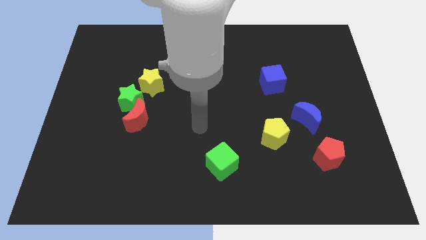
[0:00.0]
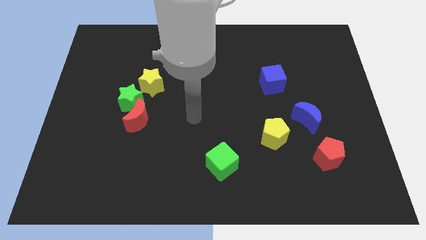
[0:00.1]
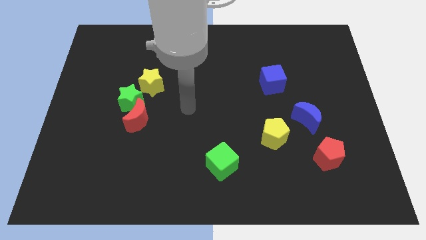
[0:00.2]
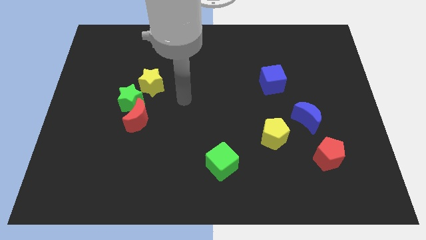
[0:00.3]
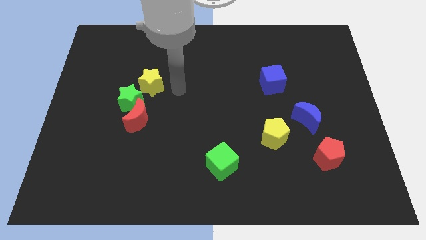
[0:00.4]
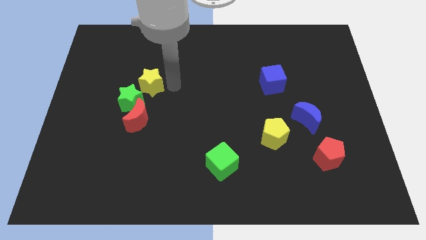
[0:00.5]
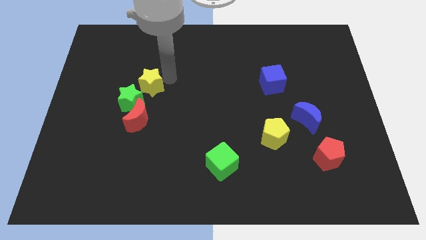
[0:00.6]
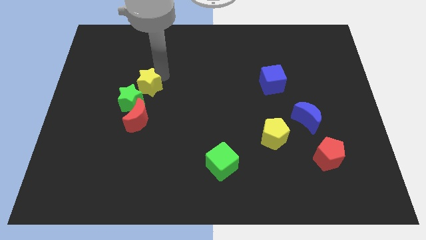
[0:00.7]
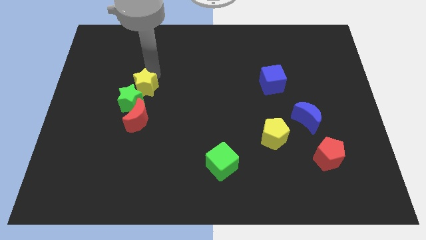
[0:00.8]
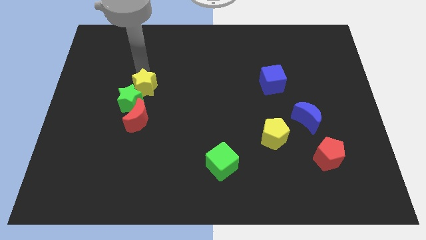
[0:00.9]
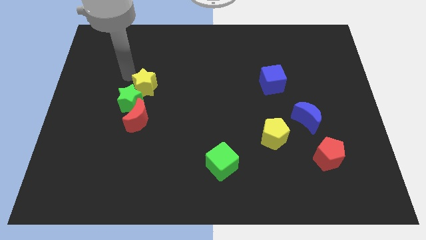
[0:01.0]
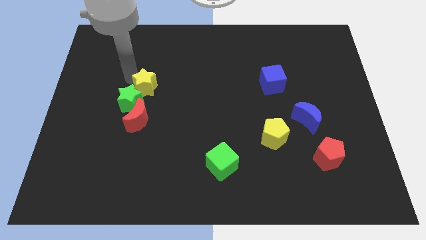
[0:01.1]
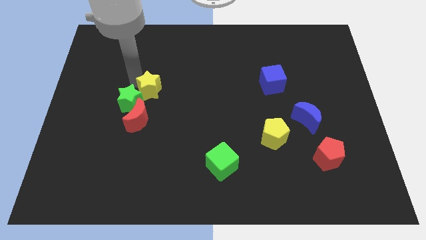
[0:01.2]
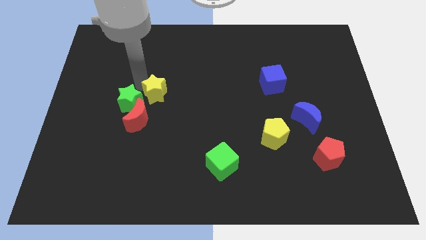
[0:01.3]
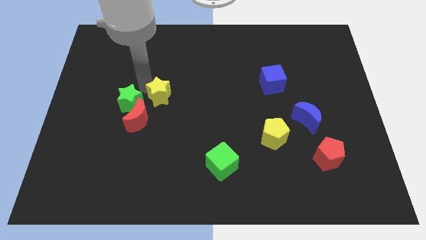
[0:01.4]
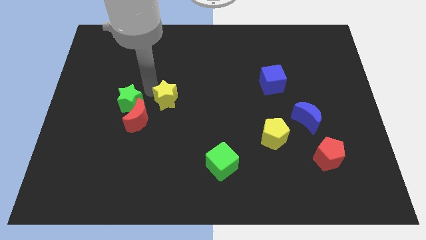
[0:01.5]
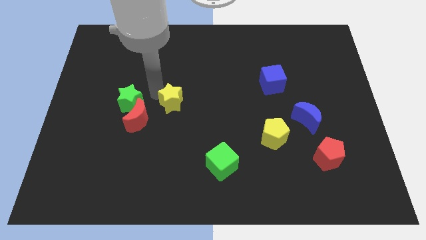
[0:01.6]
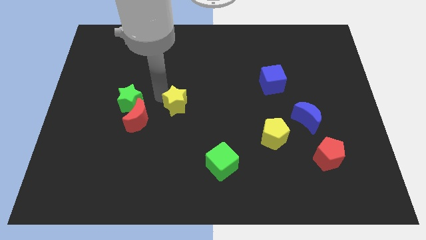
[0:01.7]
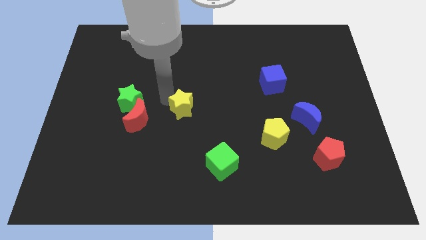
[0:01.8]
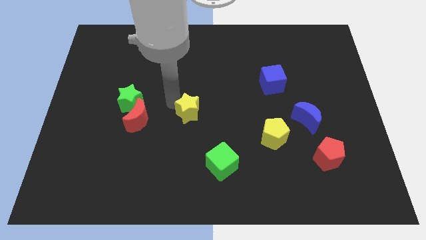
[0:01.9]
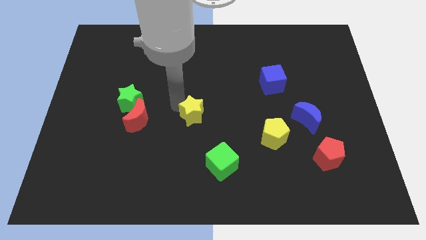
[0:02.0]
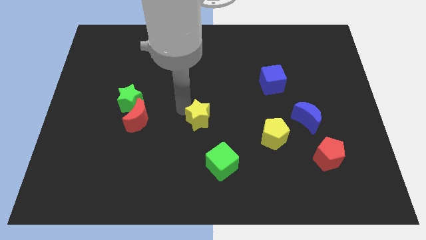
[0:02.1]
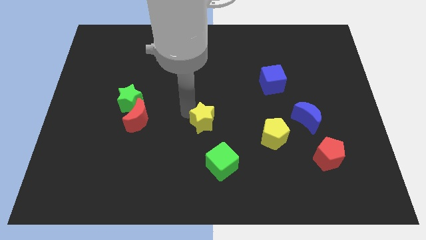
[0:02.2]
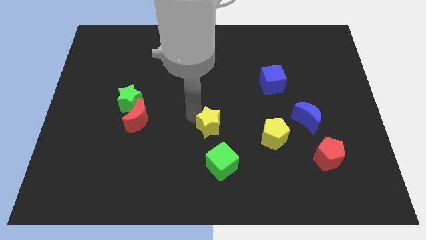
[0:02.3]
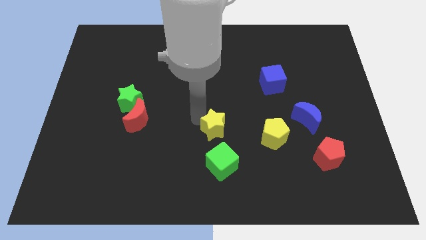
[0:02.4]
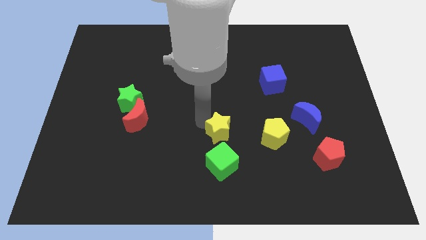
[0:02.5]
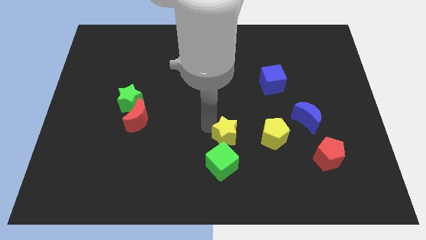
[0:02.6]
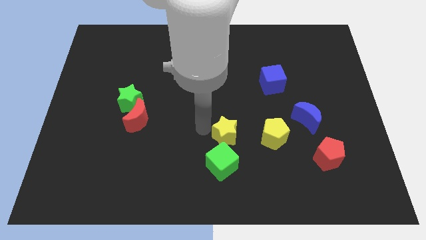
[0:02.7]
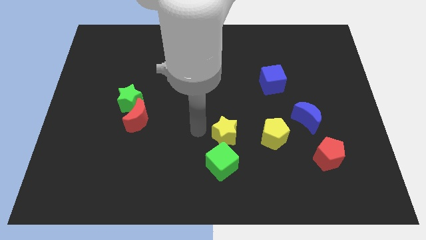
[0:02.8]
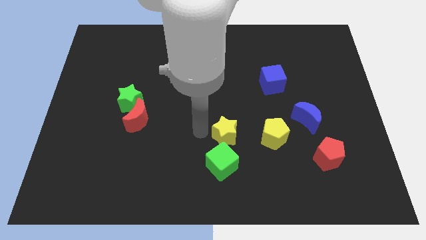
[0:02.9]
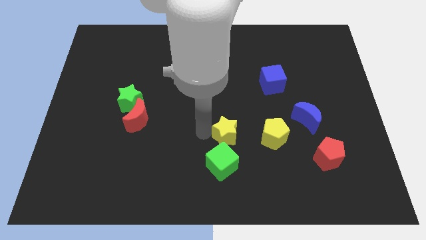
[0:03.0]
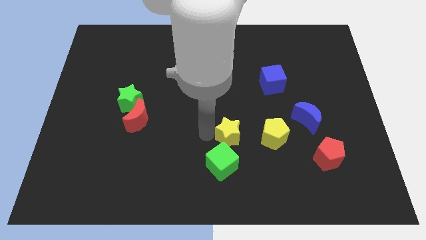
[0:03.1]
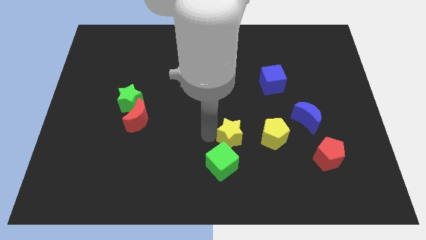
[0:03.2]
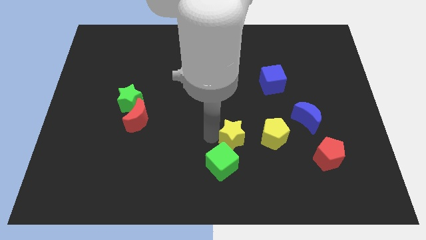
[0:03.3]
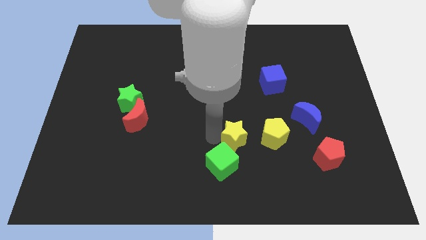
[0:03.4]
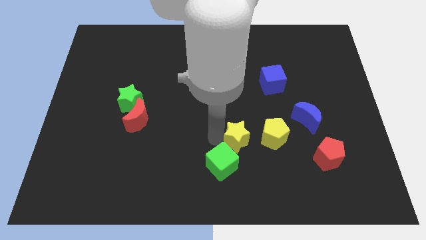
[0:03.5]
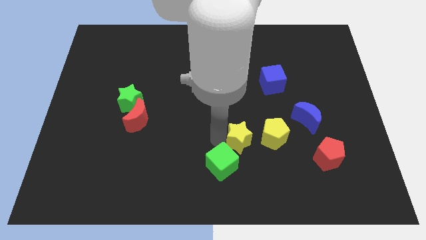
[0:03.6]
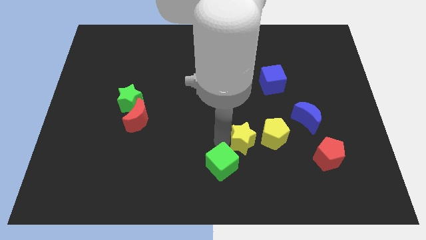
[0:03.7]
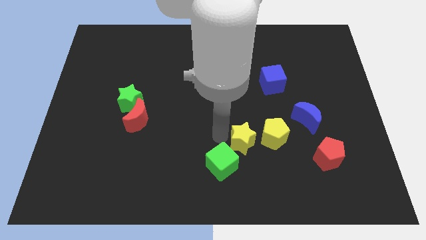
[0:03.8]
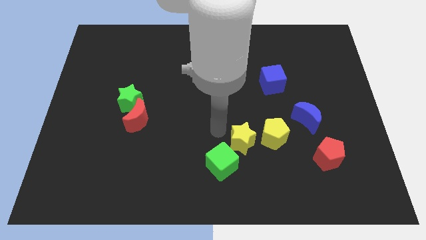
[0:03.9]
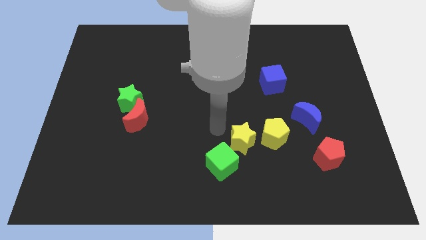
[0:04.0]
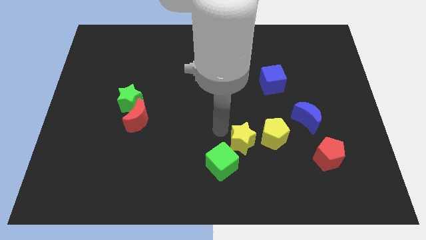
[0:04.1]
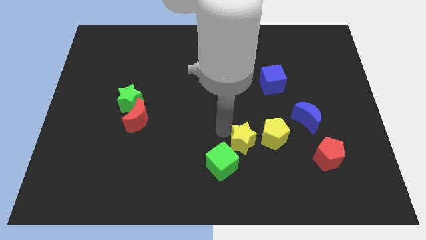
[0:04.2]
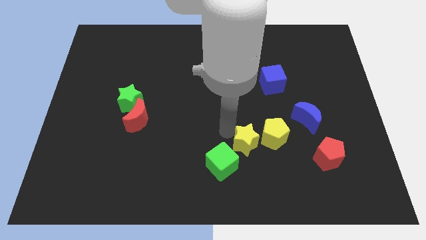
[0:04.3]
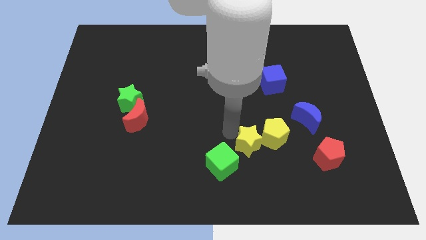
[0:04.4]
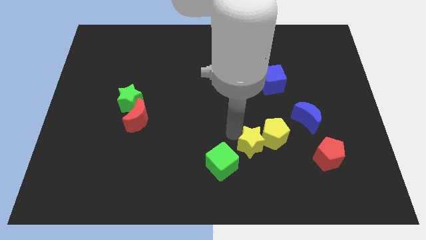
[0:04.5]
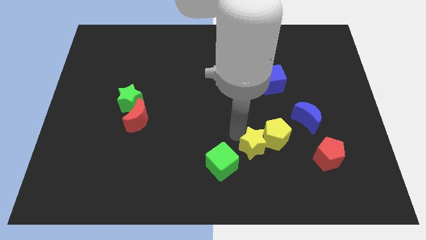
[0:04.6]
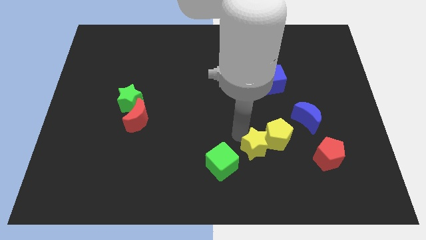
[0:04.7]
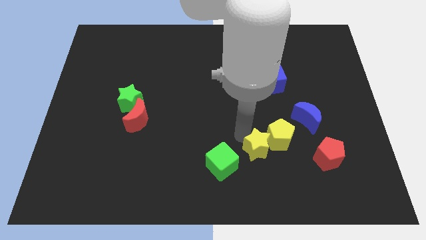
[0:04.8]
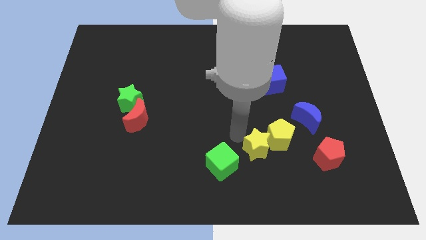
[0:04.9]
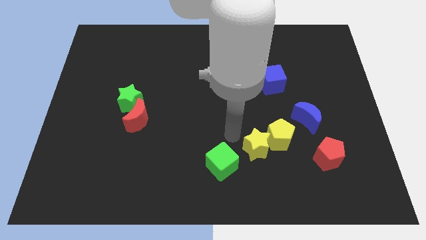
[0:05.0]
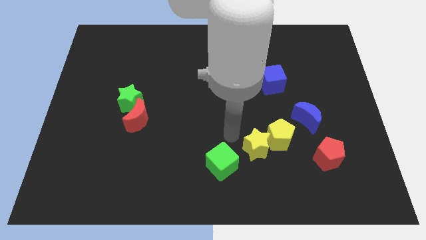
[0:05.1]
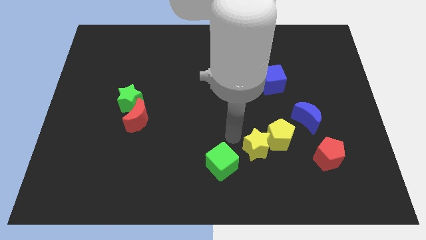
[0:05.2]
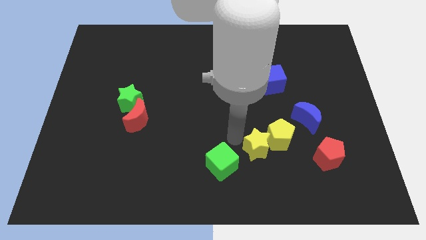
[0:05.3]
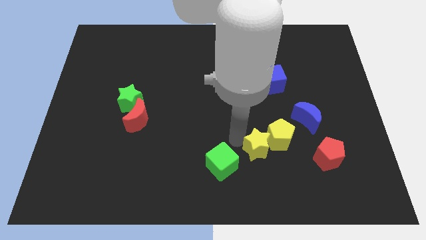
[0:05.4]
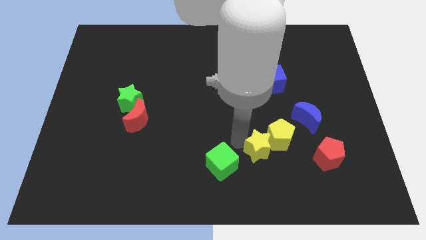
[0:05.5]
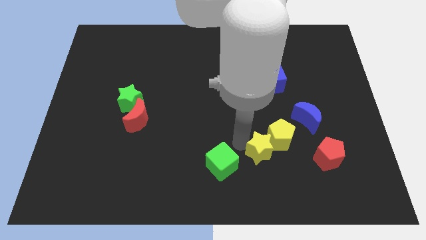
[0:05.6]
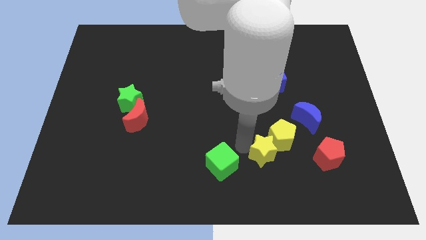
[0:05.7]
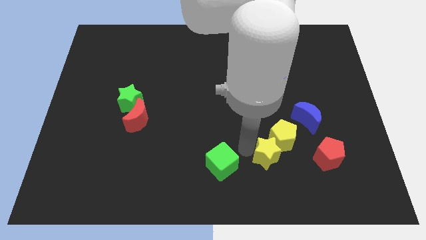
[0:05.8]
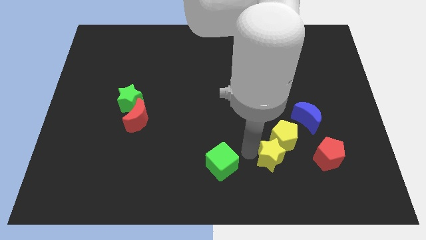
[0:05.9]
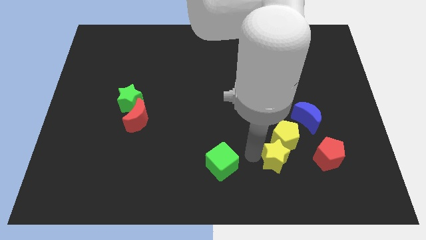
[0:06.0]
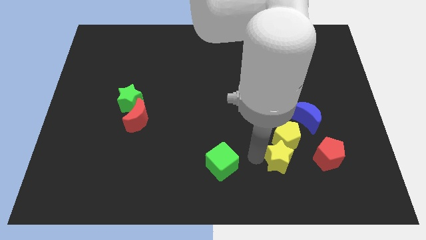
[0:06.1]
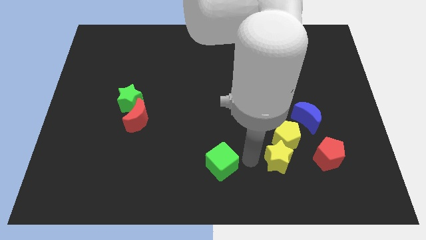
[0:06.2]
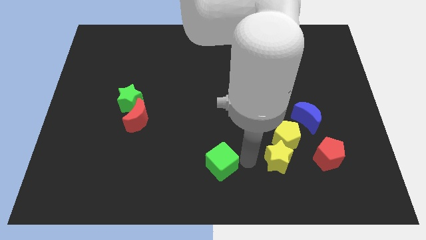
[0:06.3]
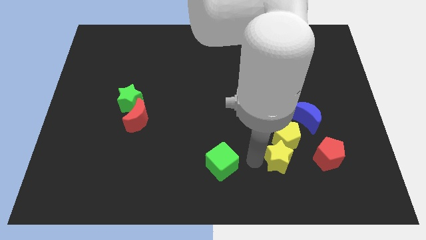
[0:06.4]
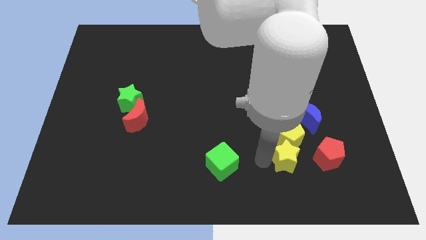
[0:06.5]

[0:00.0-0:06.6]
slide the yellow star diagonally down and to the right of the yellow pentagon
